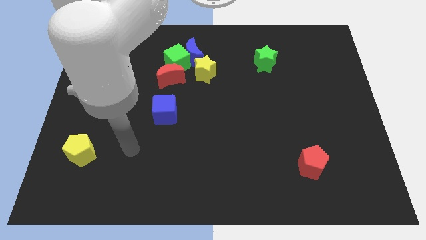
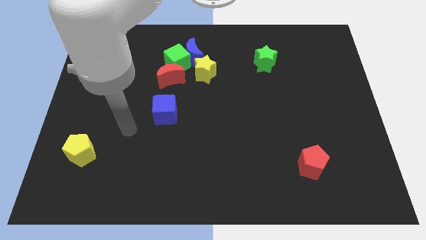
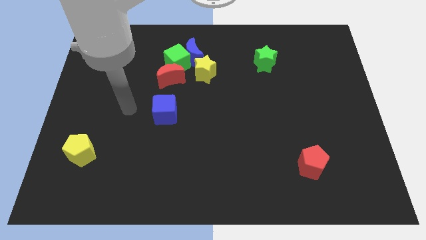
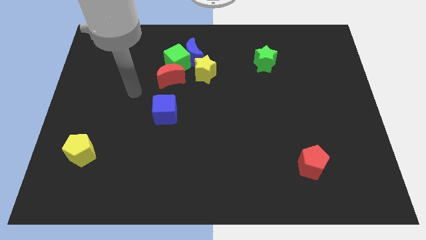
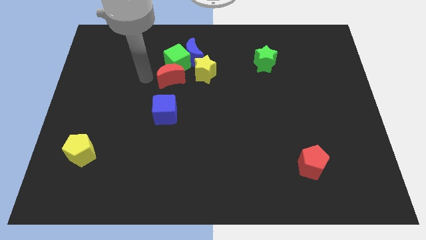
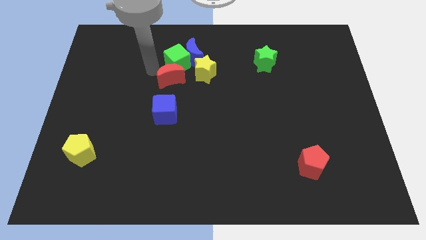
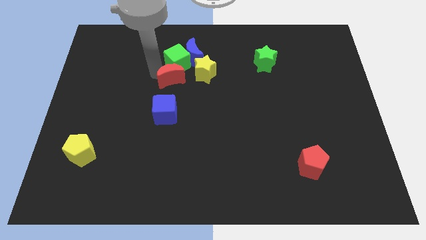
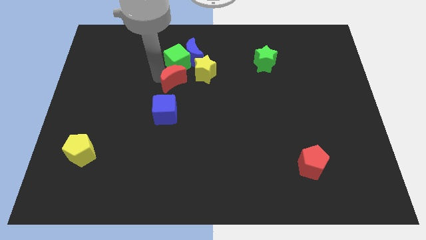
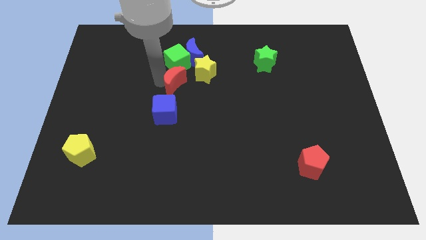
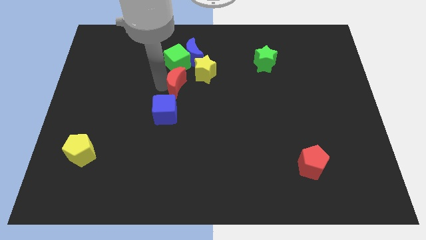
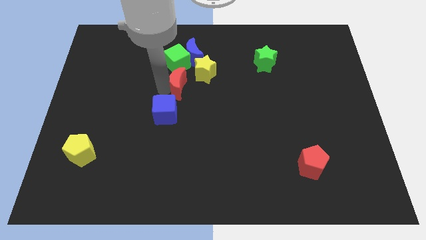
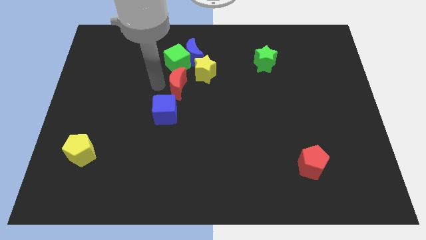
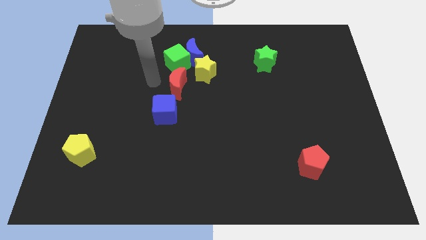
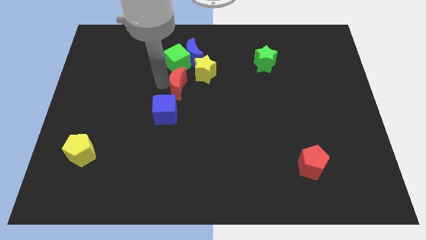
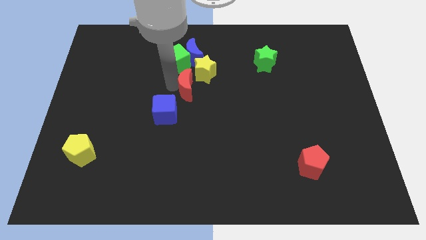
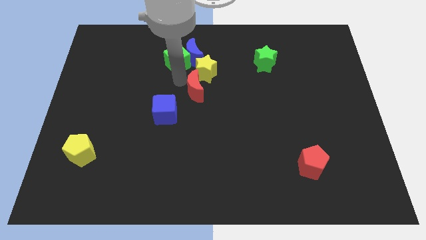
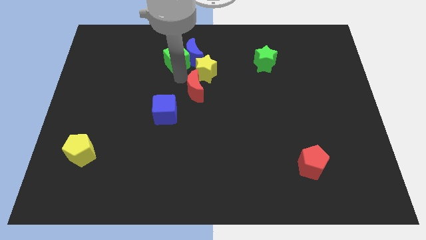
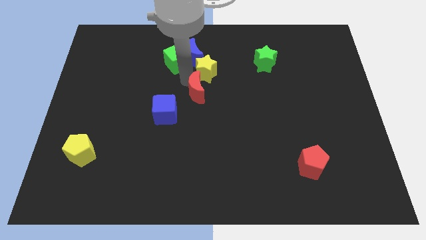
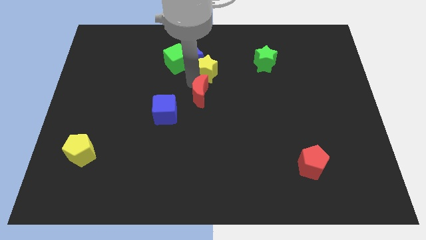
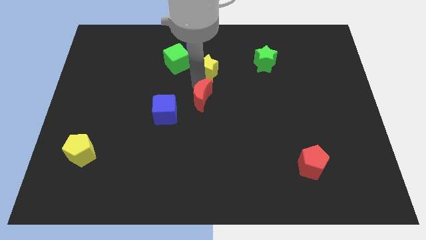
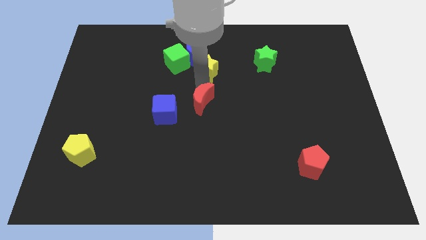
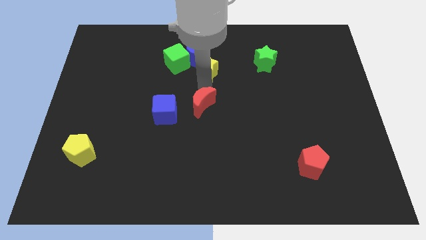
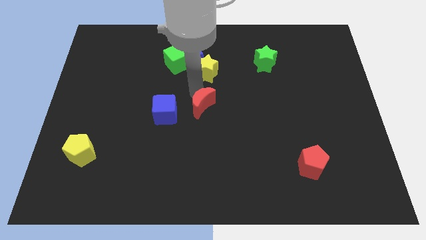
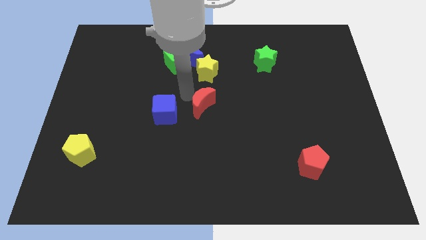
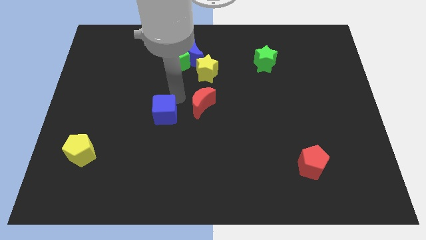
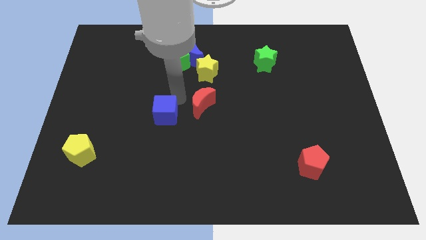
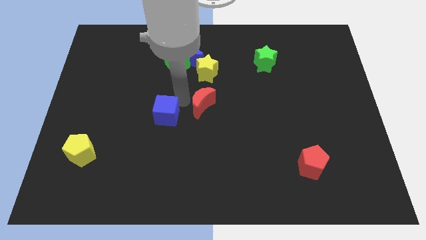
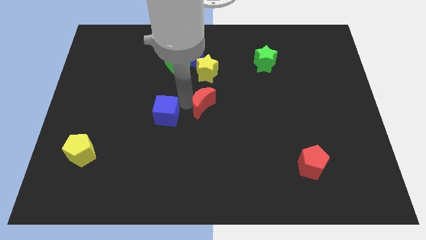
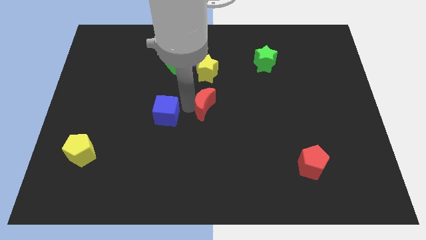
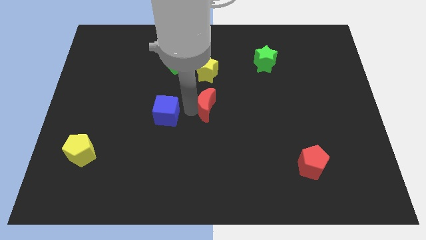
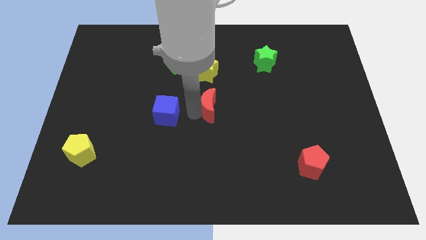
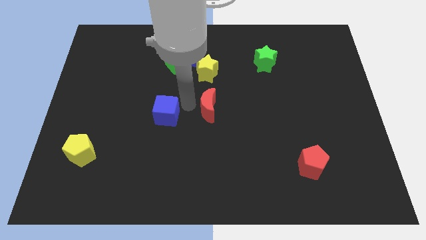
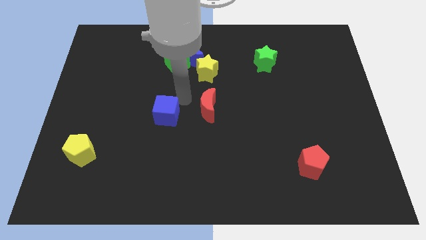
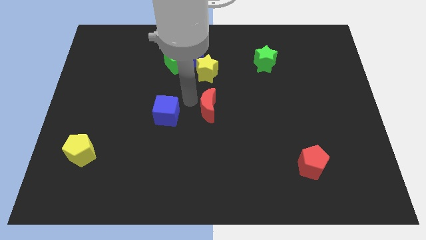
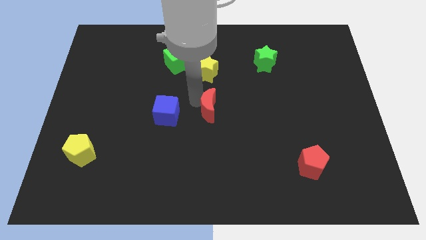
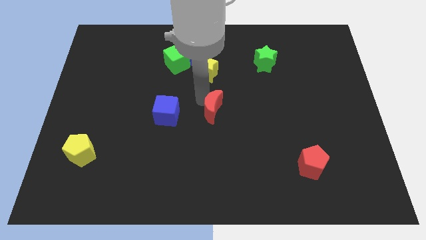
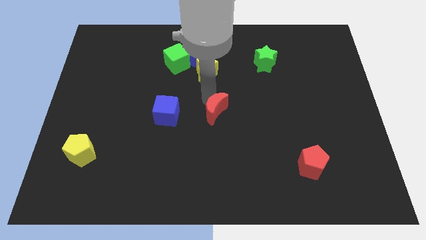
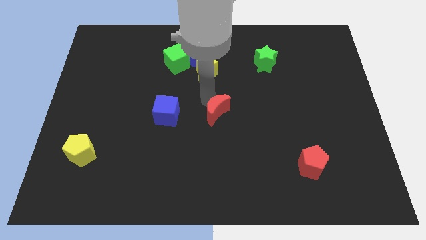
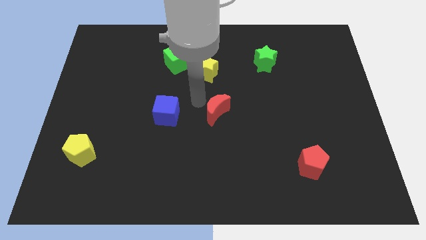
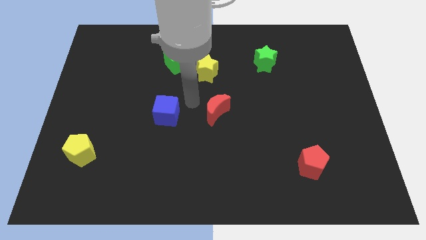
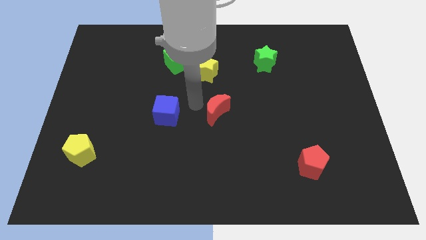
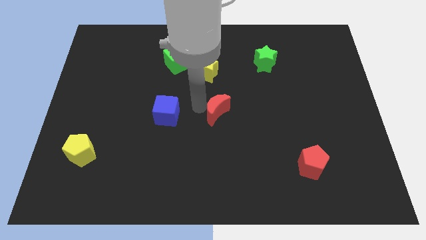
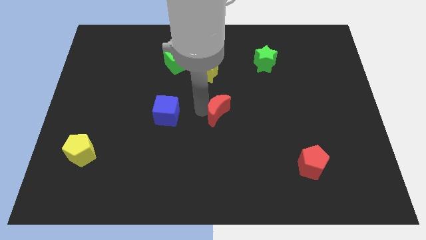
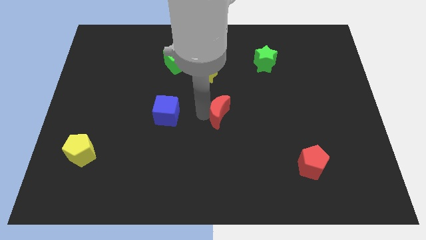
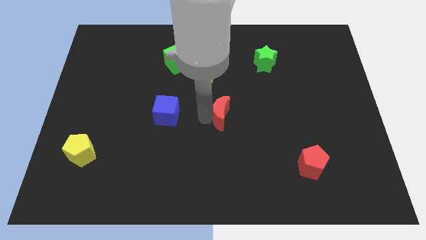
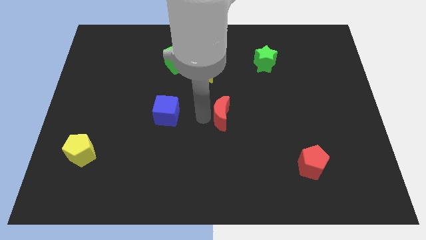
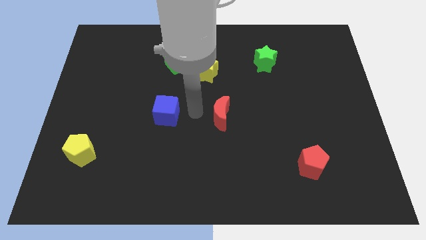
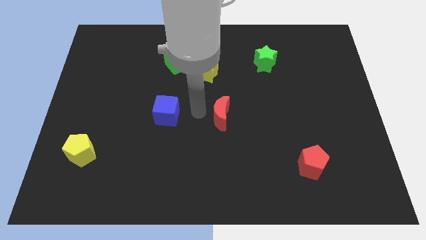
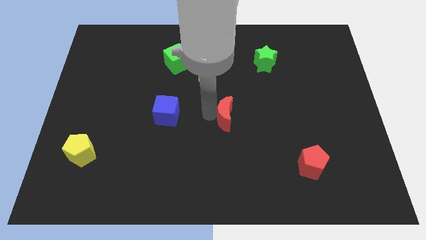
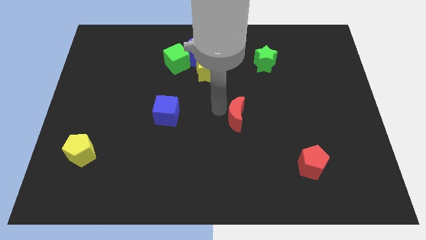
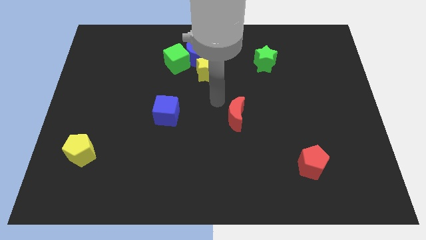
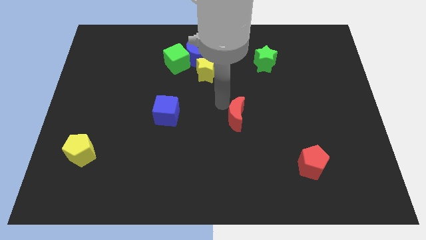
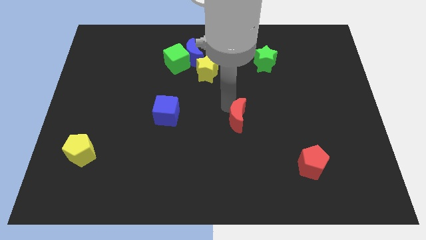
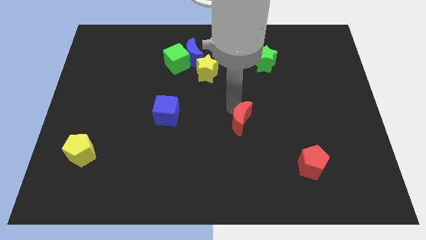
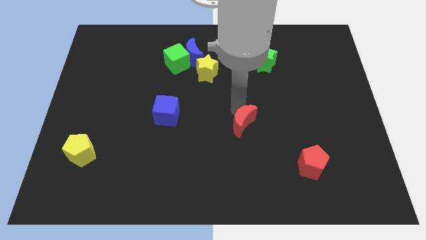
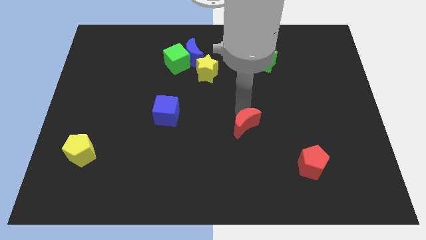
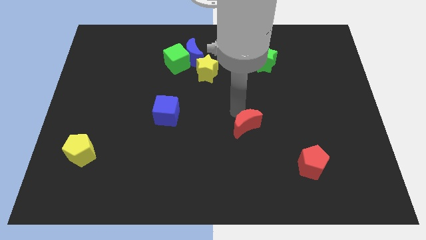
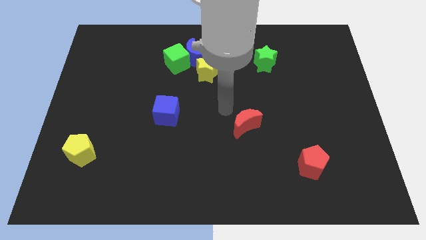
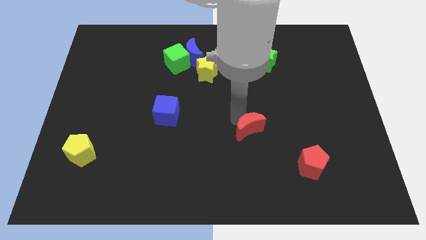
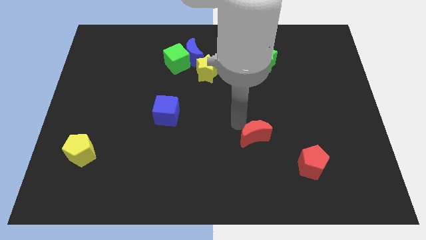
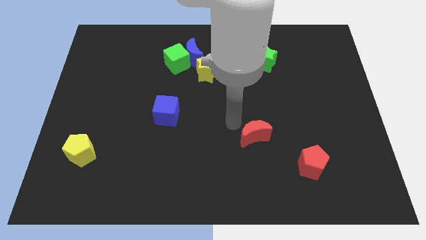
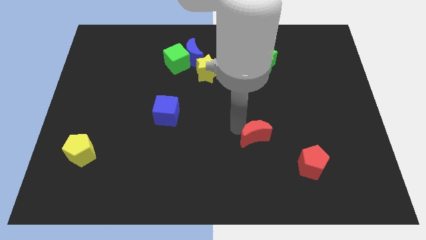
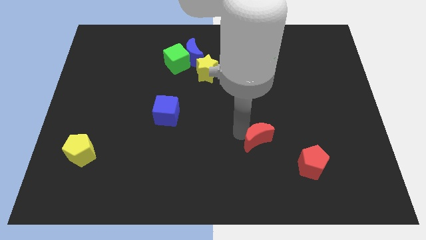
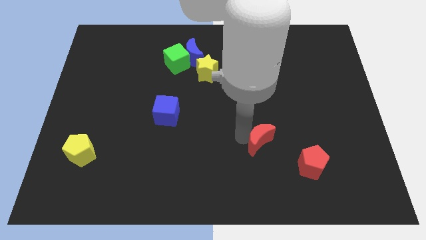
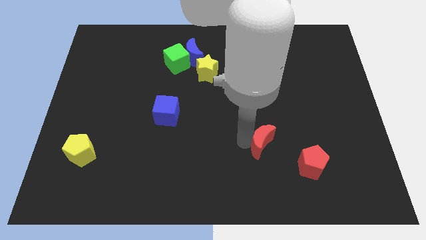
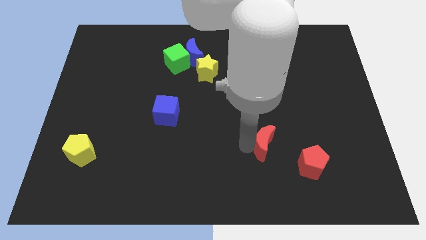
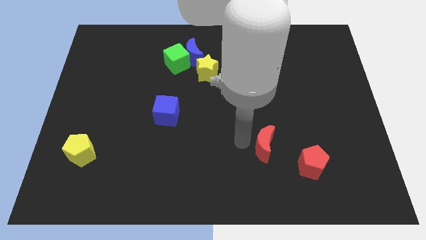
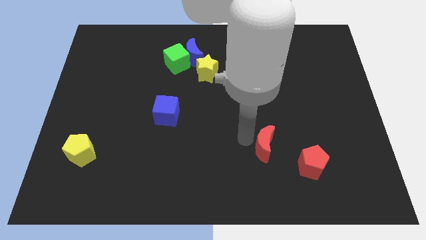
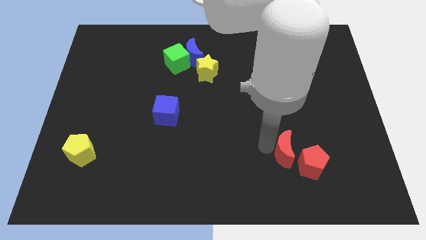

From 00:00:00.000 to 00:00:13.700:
slide the red moon next to the red pentagon
